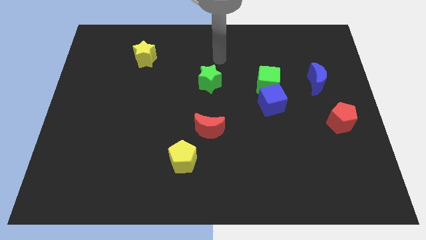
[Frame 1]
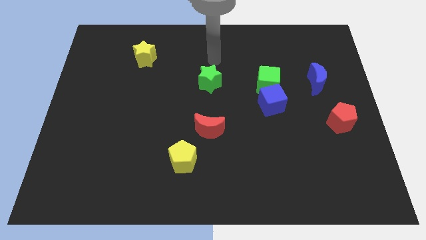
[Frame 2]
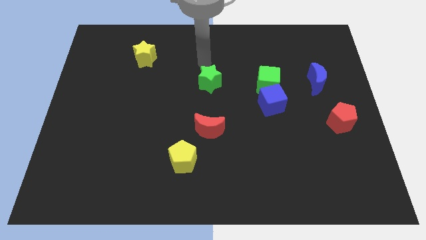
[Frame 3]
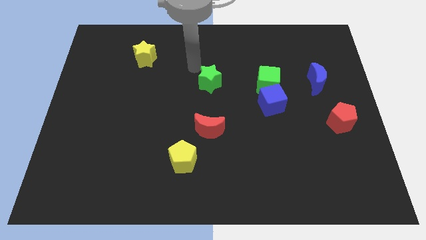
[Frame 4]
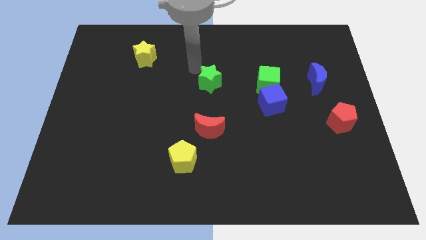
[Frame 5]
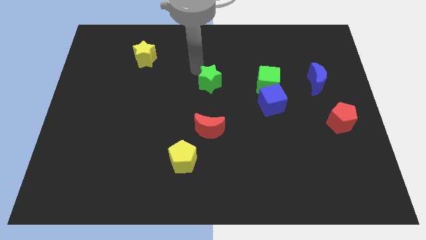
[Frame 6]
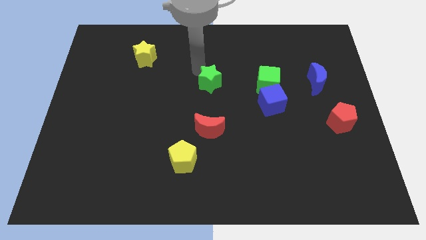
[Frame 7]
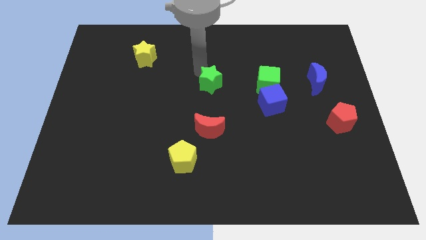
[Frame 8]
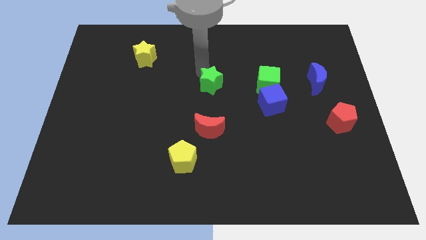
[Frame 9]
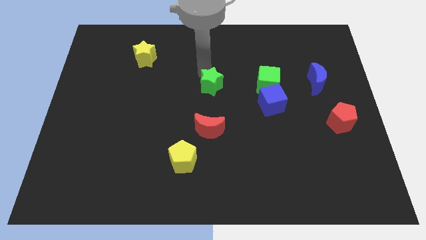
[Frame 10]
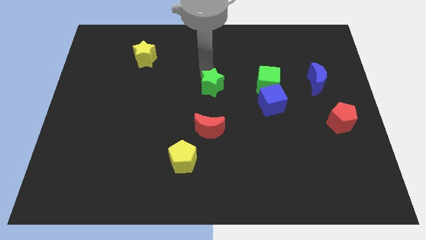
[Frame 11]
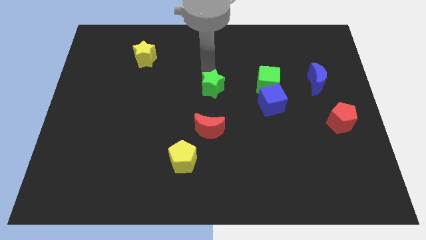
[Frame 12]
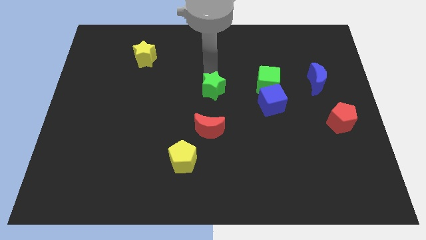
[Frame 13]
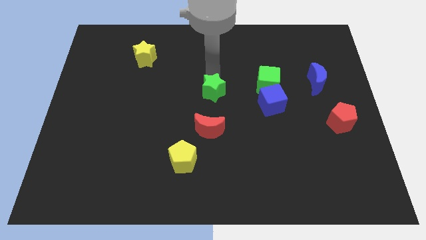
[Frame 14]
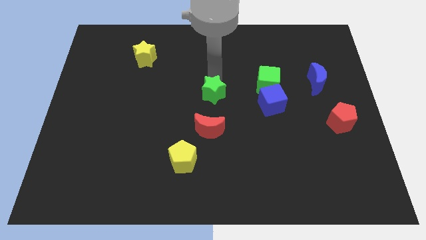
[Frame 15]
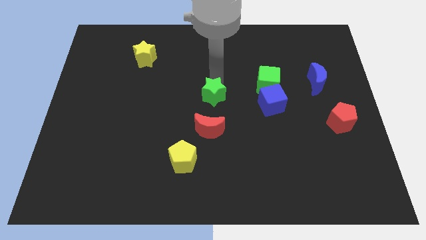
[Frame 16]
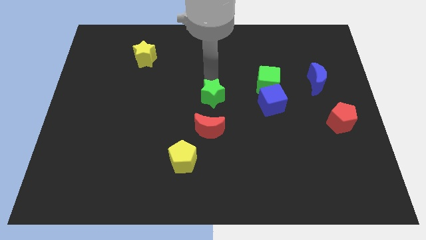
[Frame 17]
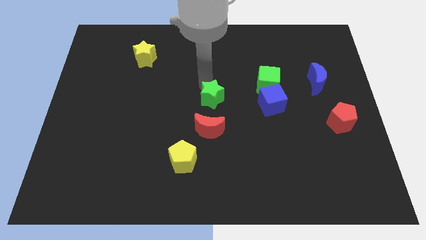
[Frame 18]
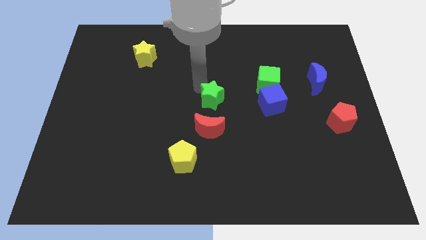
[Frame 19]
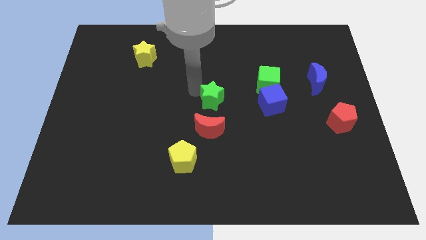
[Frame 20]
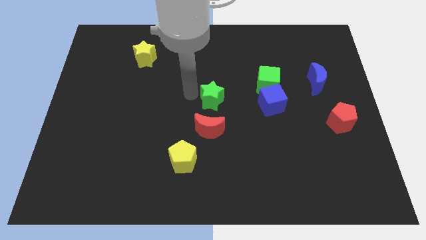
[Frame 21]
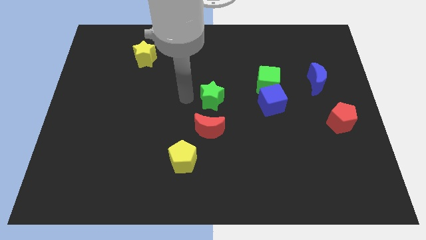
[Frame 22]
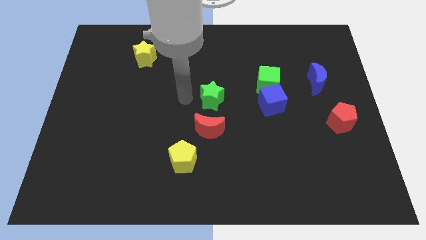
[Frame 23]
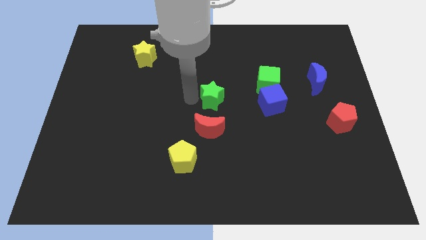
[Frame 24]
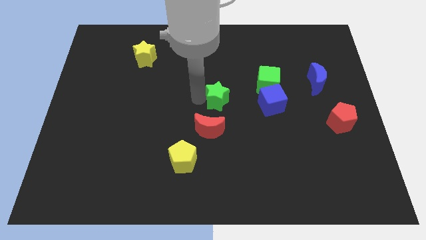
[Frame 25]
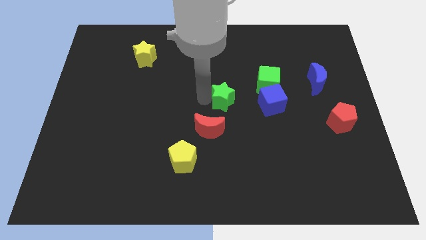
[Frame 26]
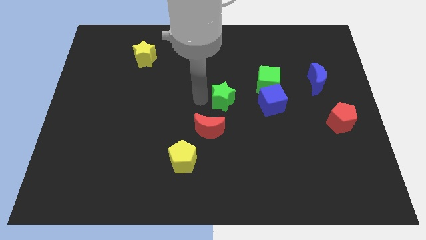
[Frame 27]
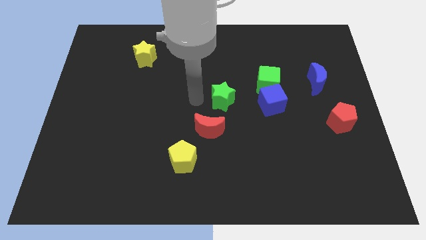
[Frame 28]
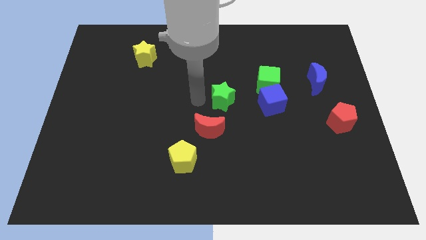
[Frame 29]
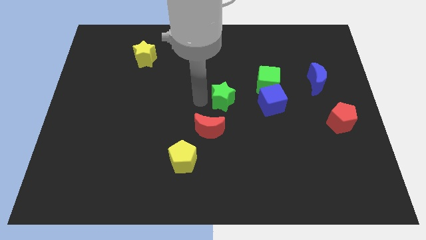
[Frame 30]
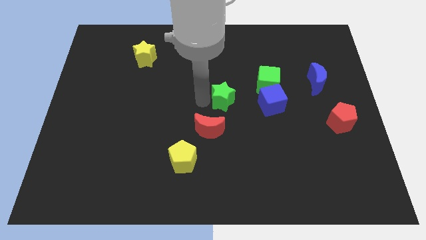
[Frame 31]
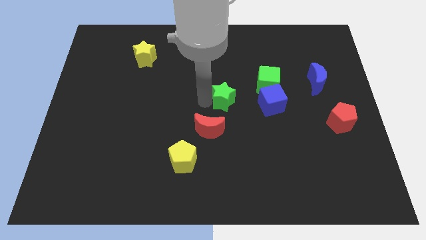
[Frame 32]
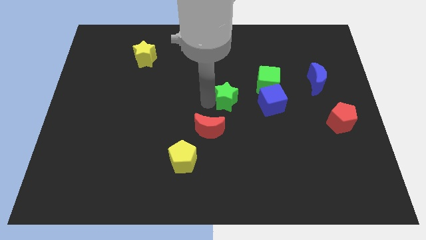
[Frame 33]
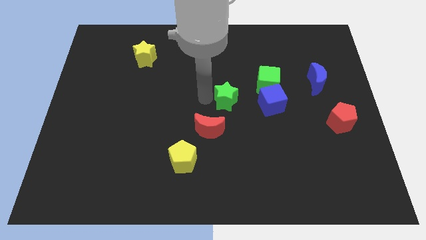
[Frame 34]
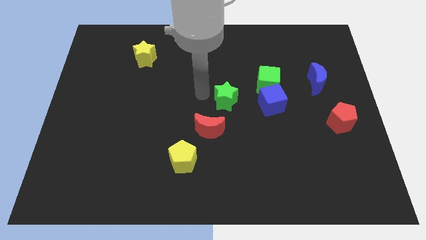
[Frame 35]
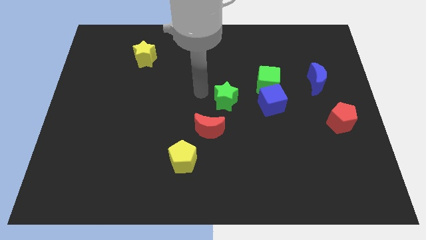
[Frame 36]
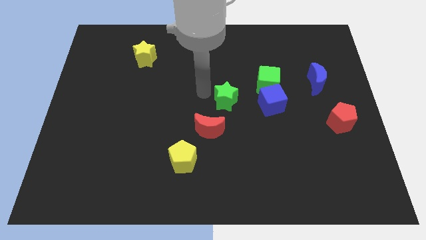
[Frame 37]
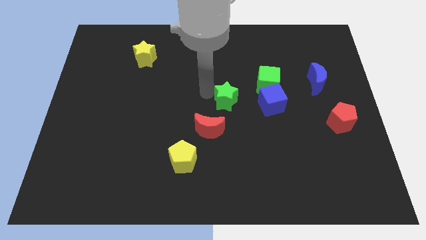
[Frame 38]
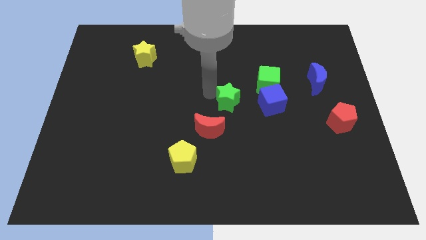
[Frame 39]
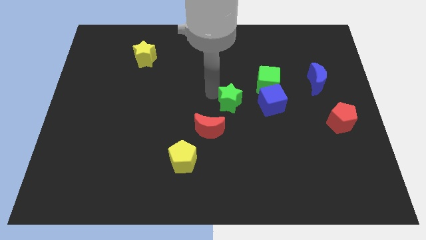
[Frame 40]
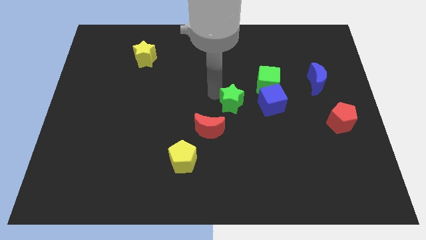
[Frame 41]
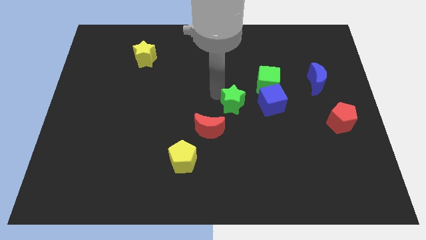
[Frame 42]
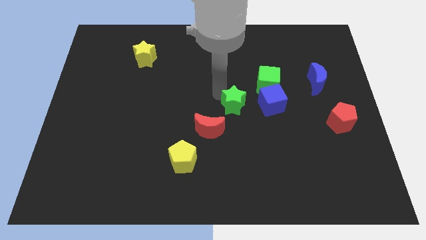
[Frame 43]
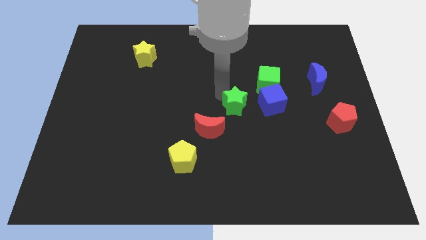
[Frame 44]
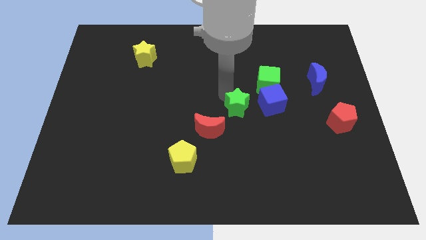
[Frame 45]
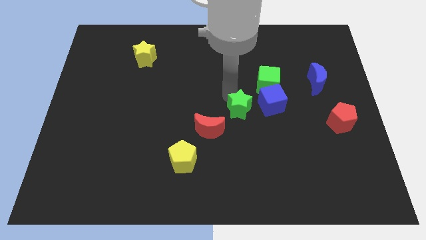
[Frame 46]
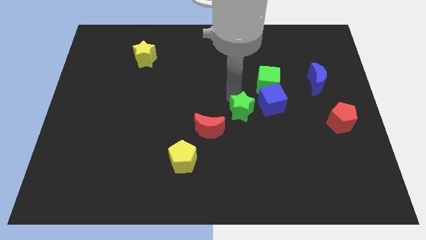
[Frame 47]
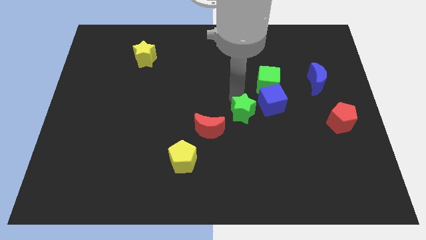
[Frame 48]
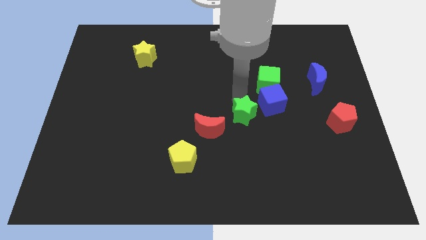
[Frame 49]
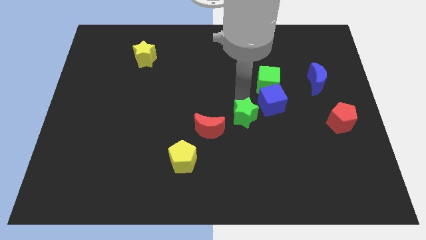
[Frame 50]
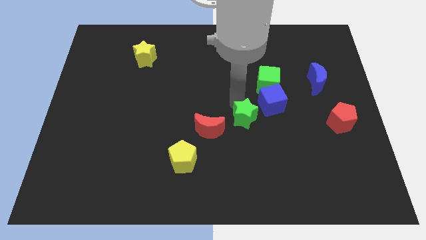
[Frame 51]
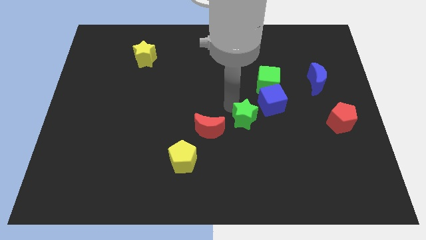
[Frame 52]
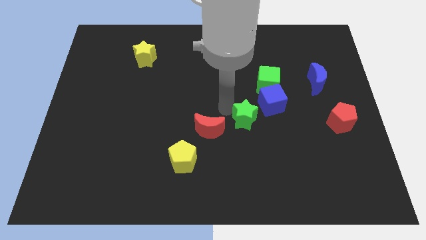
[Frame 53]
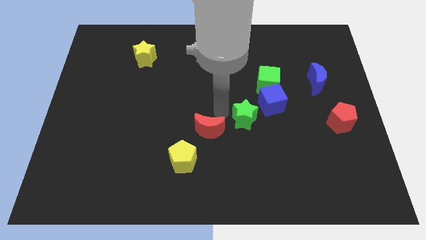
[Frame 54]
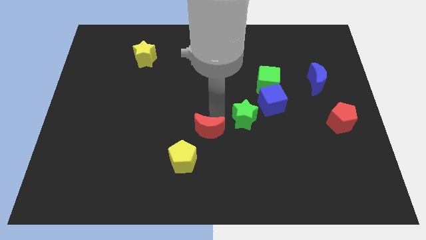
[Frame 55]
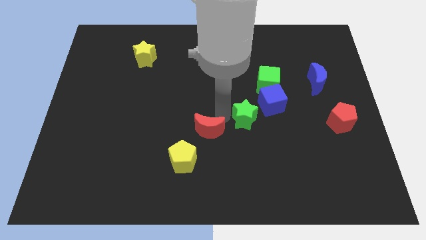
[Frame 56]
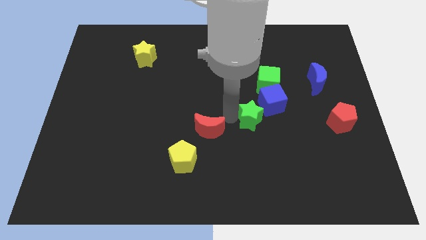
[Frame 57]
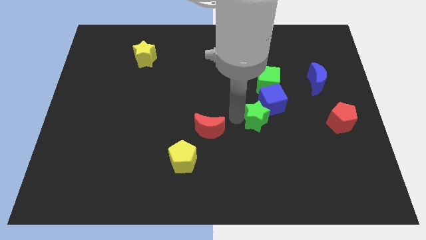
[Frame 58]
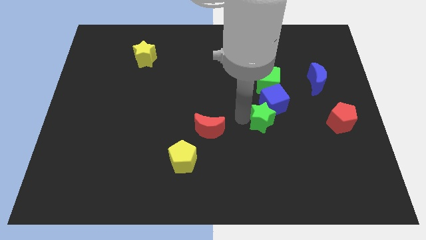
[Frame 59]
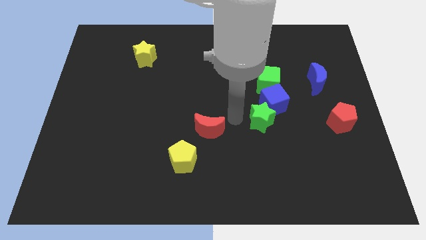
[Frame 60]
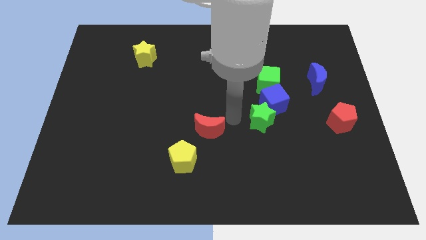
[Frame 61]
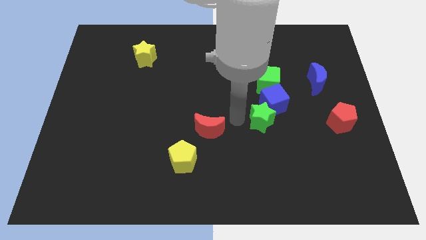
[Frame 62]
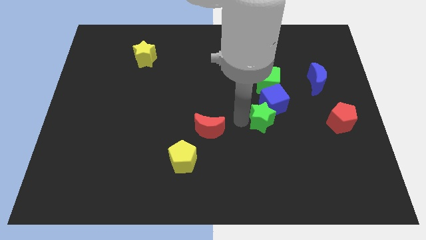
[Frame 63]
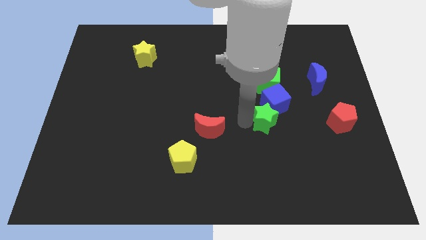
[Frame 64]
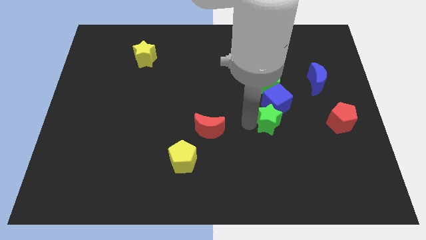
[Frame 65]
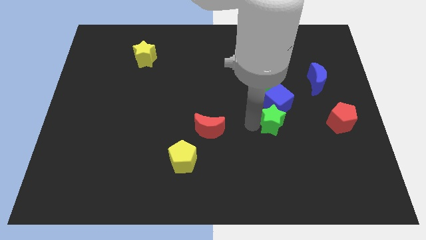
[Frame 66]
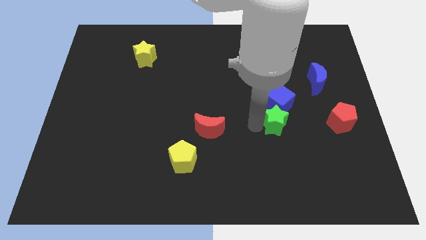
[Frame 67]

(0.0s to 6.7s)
push the green star to the bottom right side of the blue cube
